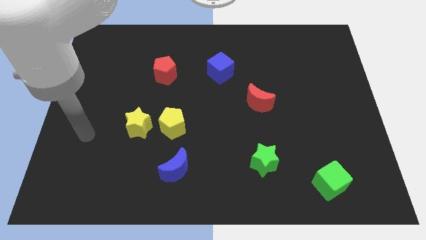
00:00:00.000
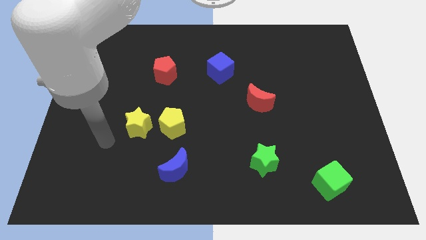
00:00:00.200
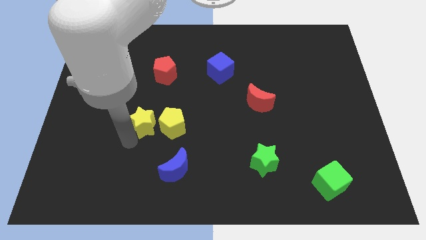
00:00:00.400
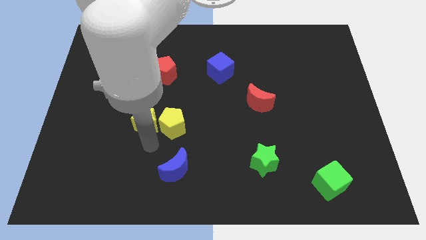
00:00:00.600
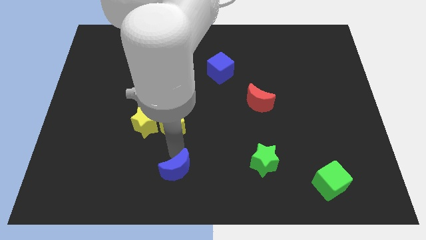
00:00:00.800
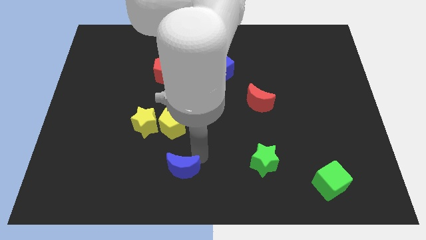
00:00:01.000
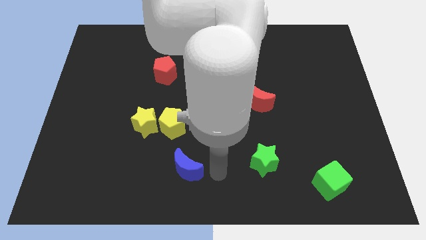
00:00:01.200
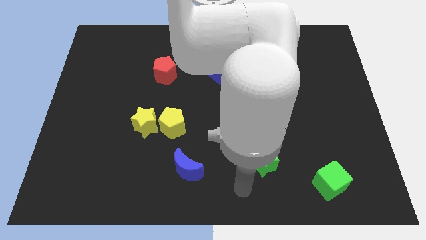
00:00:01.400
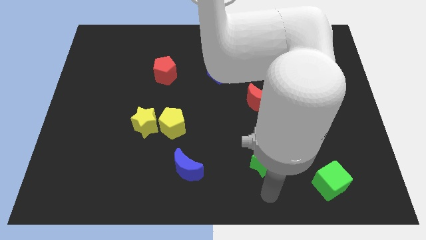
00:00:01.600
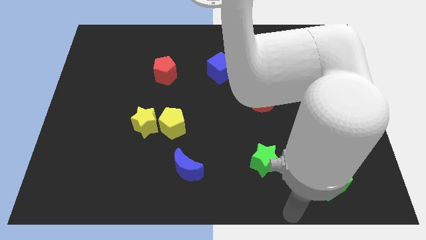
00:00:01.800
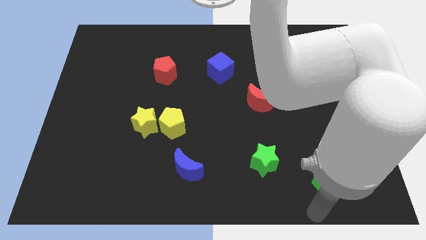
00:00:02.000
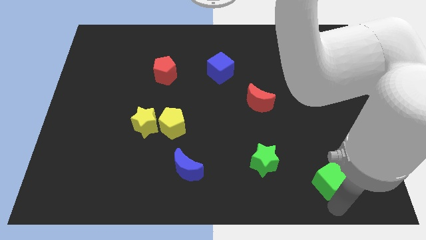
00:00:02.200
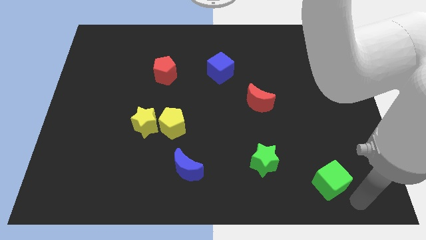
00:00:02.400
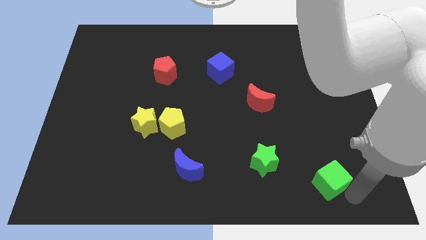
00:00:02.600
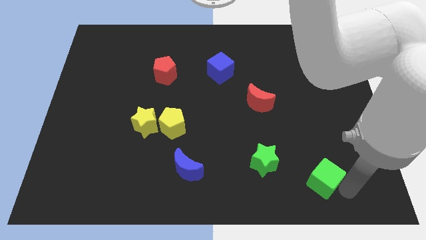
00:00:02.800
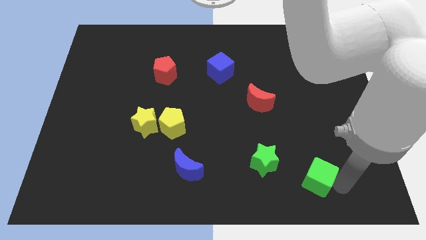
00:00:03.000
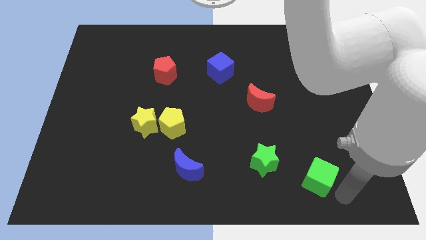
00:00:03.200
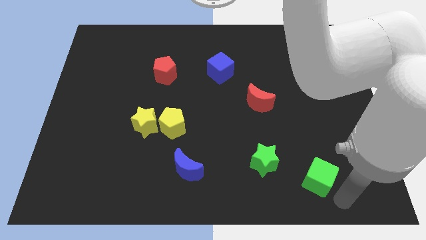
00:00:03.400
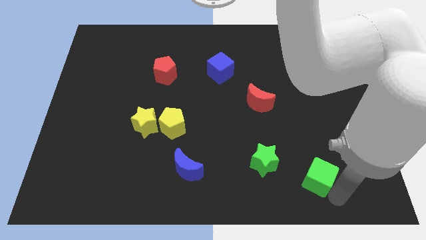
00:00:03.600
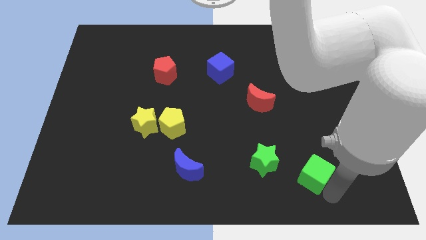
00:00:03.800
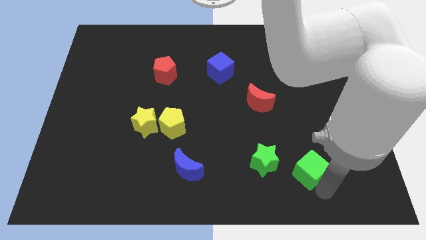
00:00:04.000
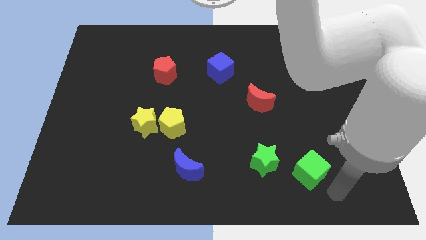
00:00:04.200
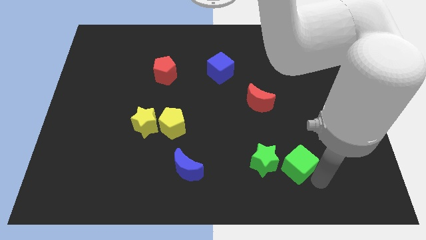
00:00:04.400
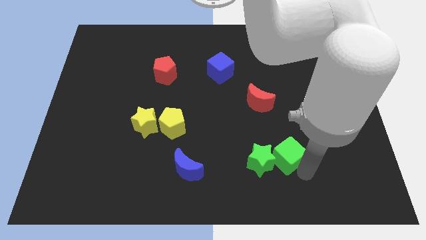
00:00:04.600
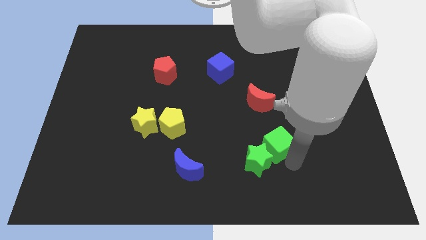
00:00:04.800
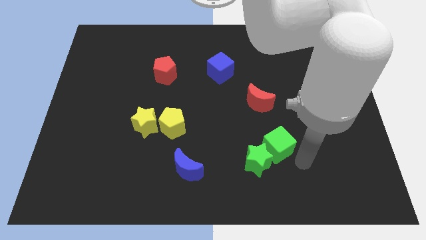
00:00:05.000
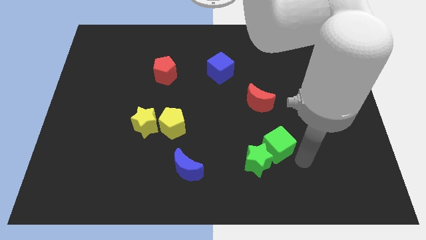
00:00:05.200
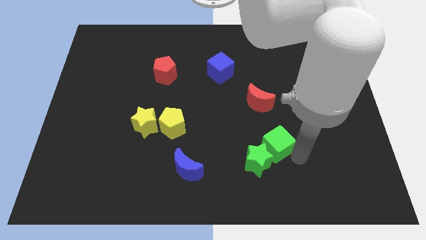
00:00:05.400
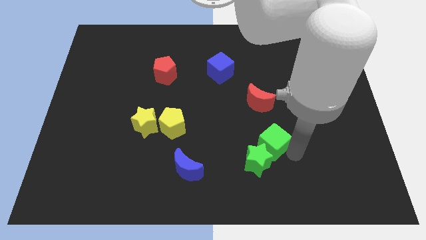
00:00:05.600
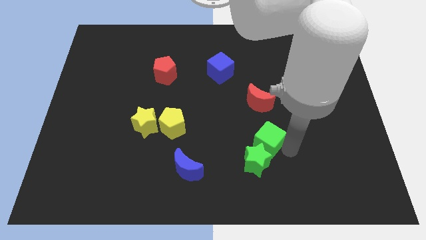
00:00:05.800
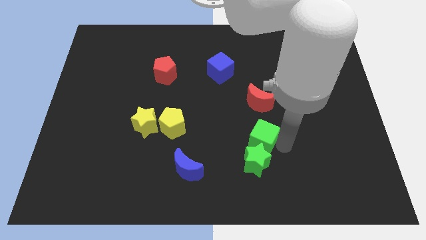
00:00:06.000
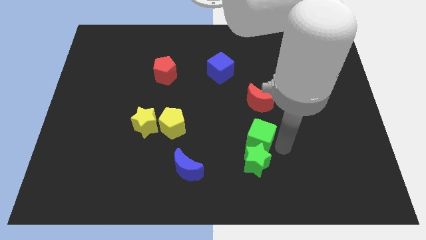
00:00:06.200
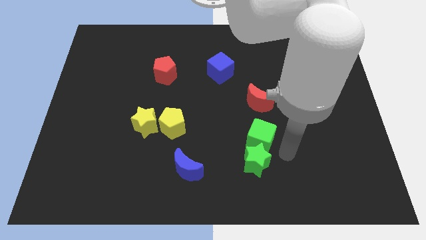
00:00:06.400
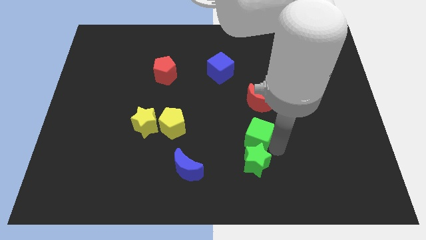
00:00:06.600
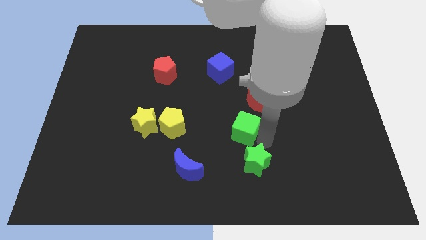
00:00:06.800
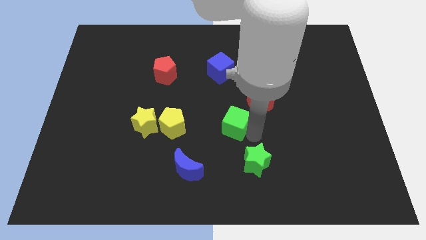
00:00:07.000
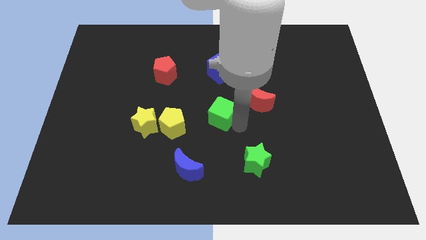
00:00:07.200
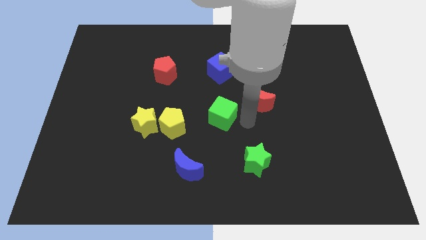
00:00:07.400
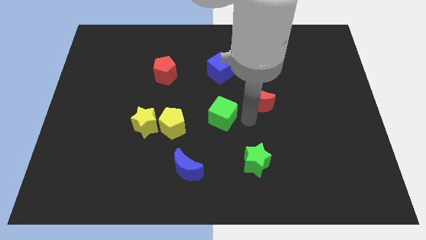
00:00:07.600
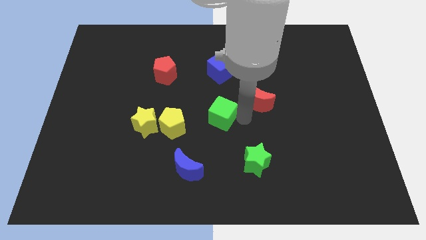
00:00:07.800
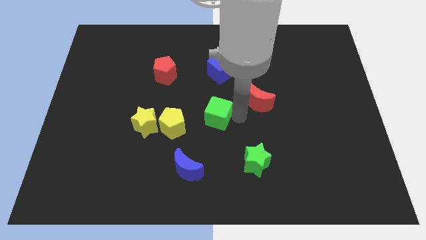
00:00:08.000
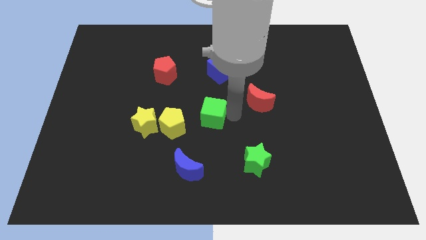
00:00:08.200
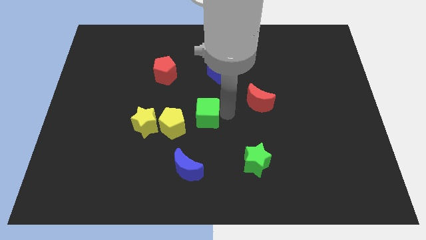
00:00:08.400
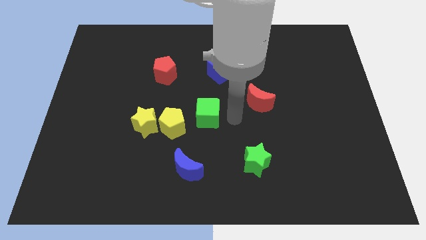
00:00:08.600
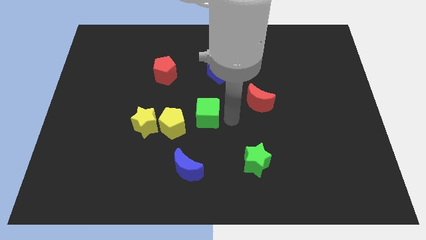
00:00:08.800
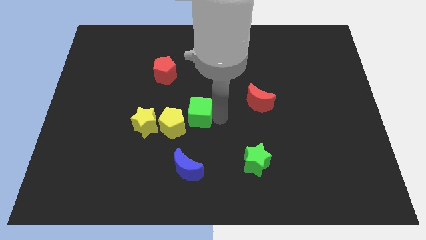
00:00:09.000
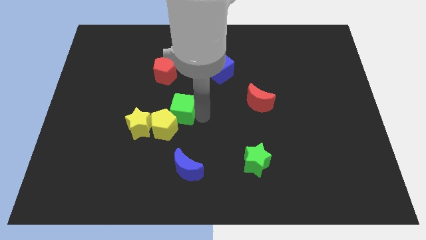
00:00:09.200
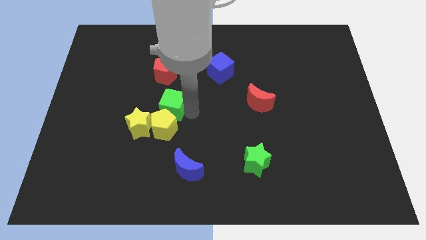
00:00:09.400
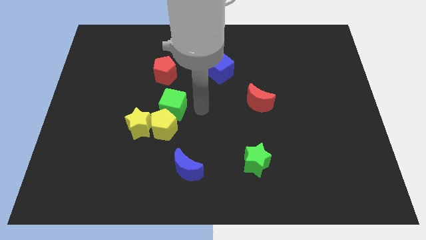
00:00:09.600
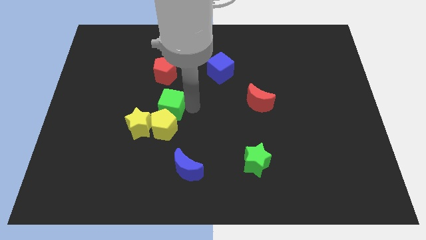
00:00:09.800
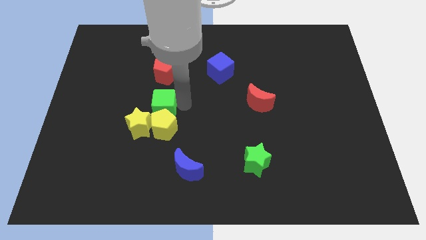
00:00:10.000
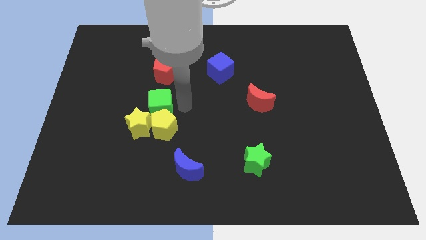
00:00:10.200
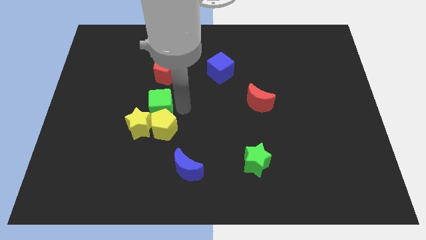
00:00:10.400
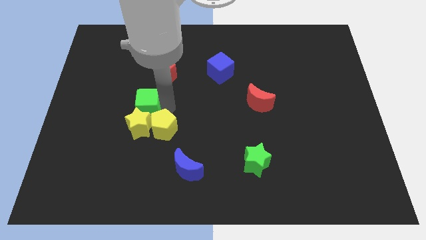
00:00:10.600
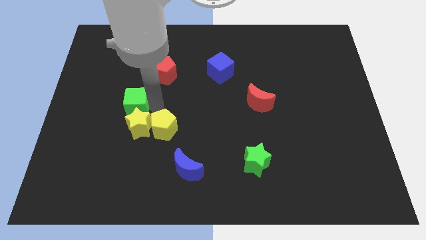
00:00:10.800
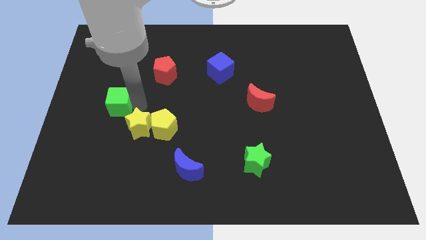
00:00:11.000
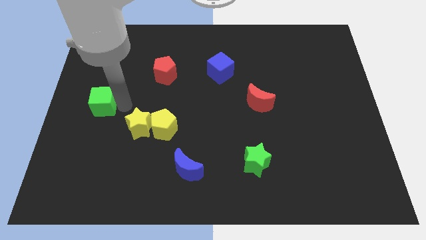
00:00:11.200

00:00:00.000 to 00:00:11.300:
push the green cube to the center left
